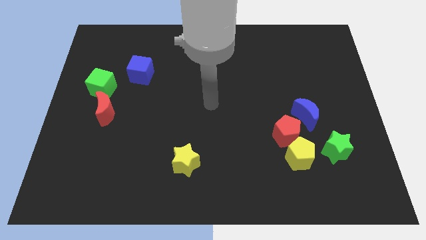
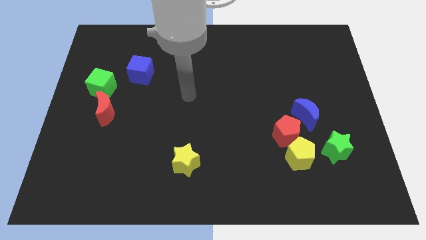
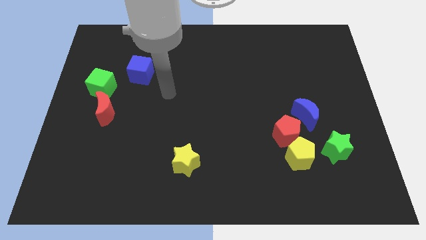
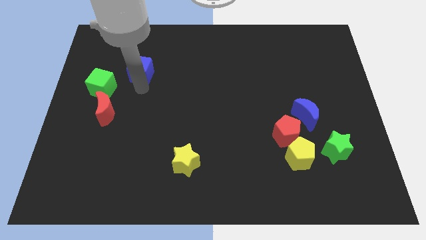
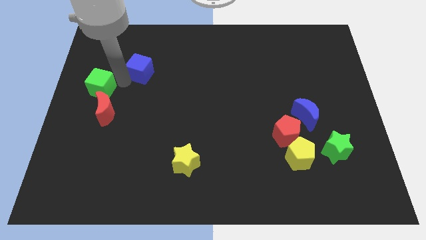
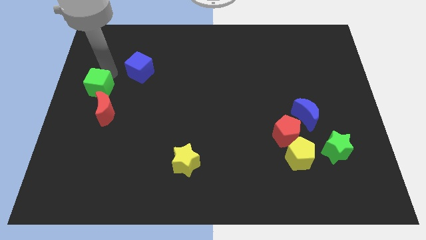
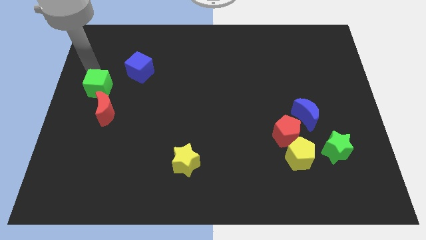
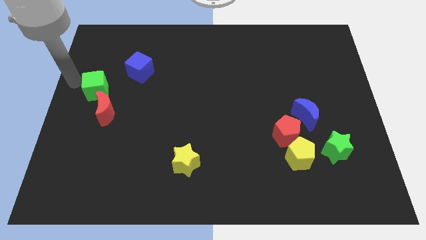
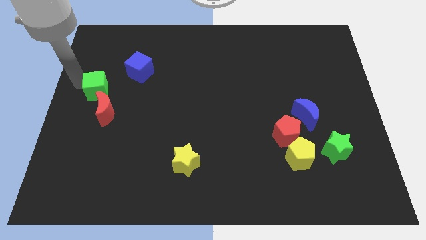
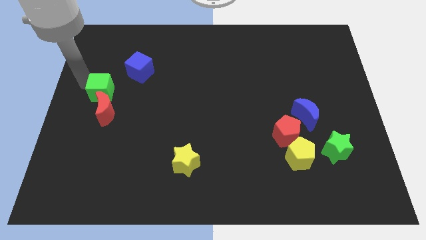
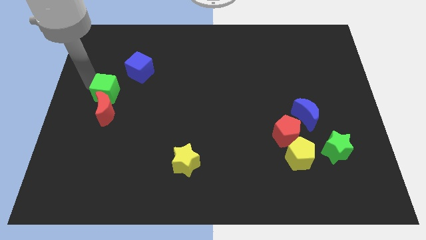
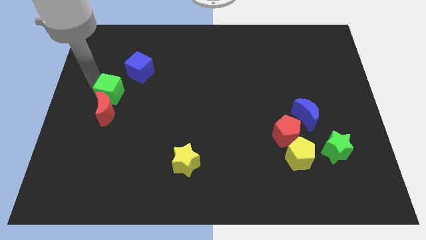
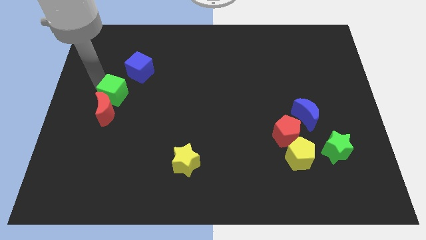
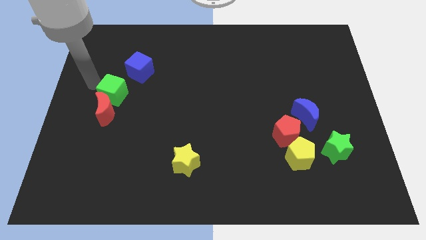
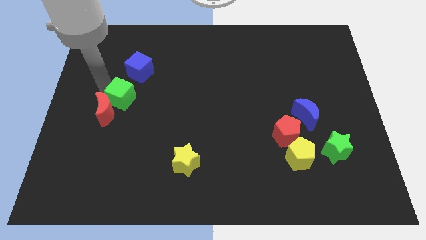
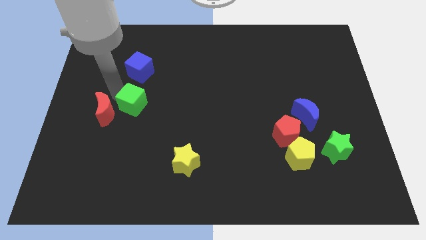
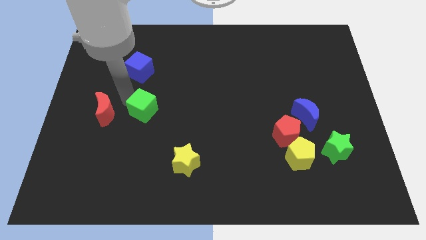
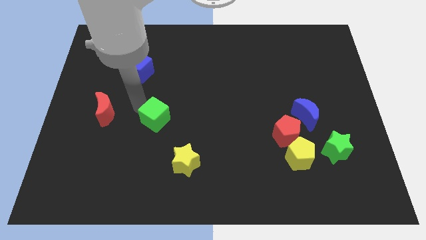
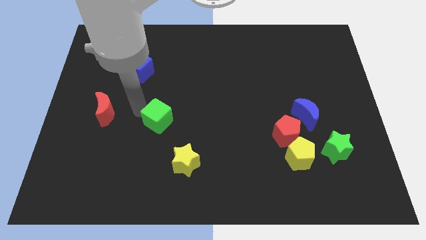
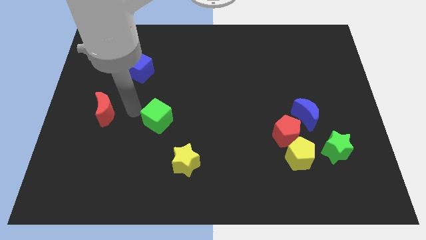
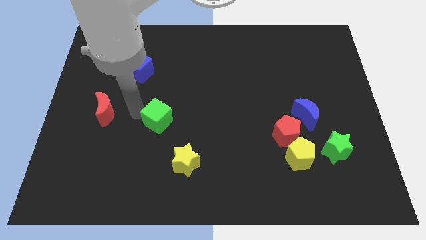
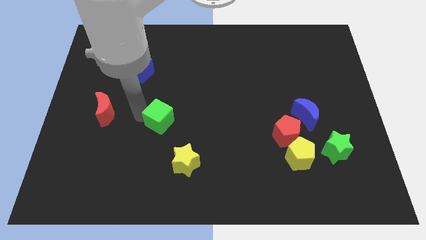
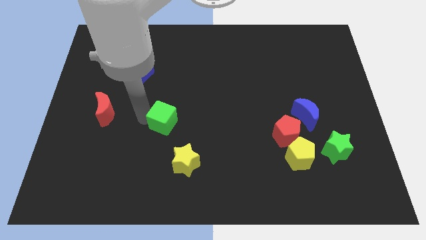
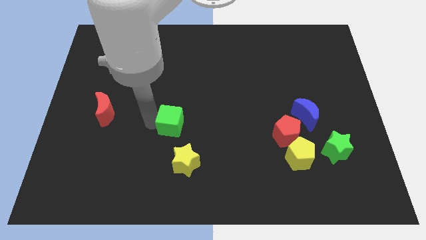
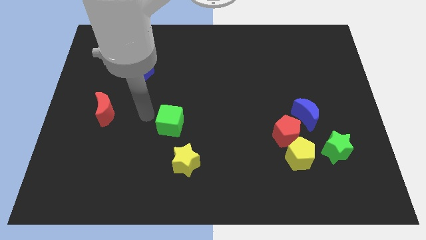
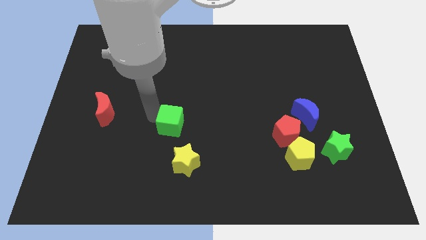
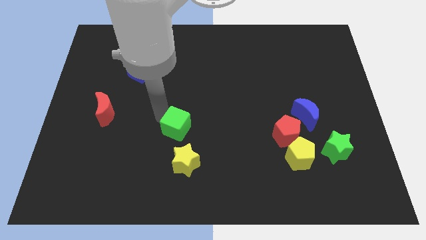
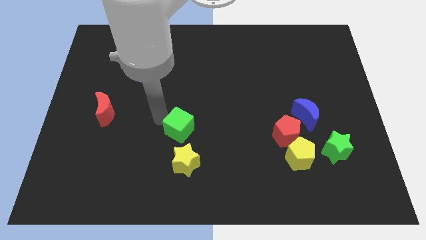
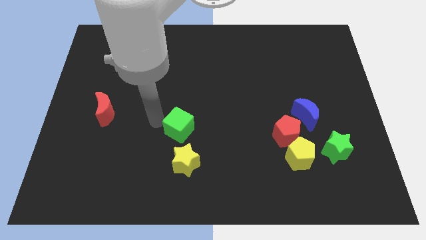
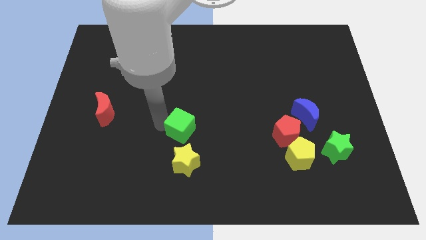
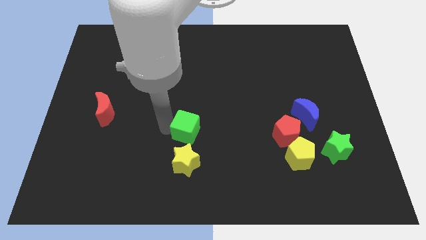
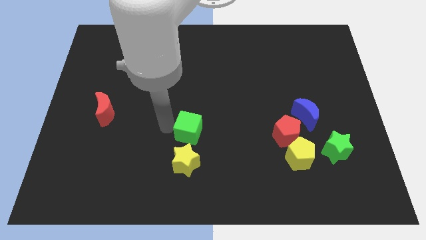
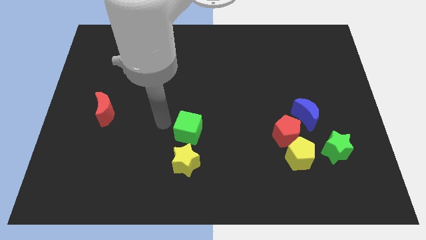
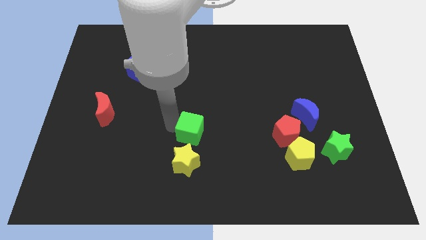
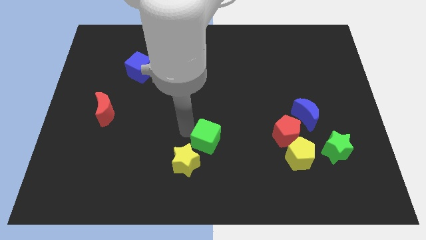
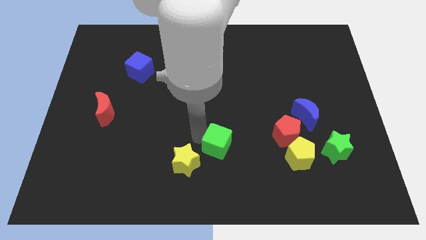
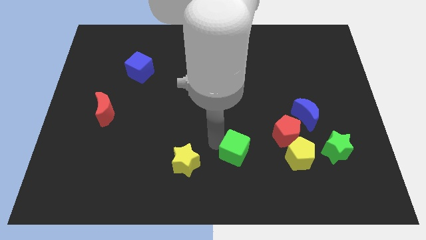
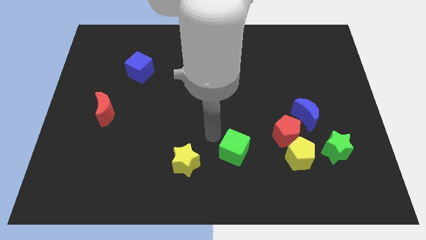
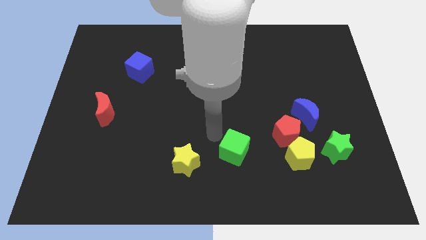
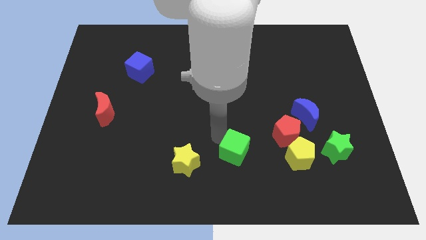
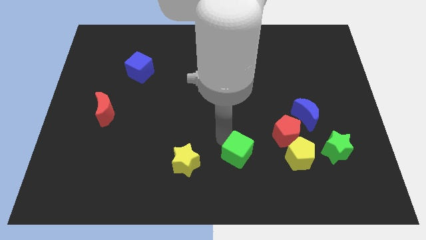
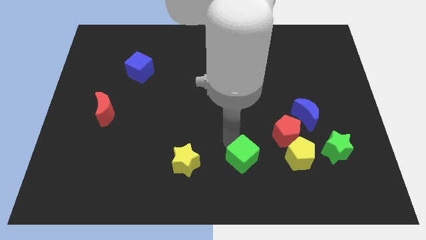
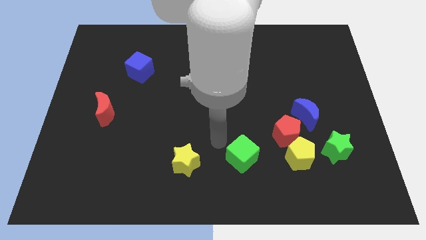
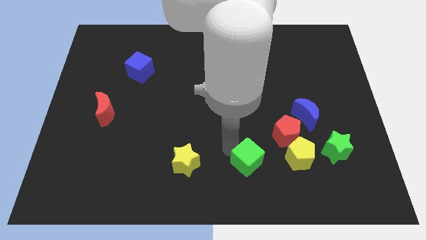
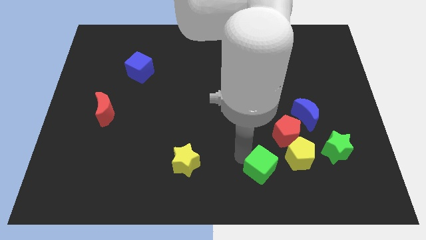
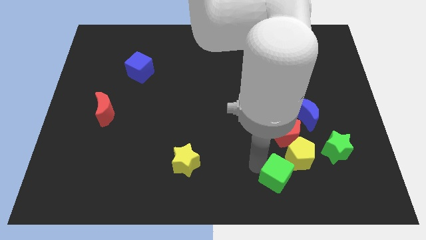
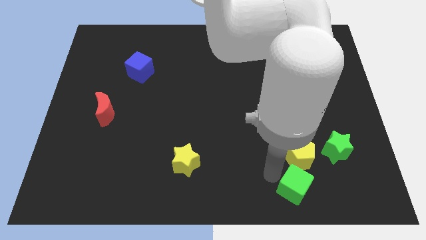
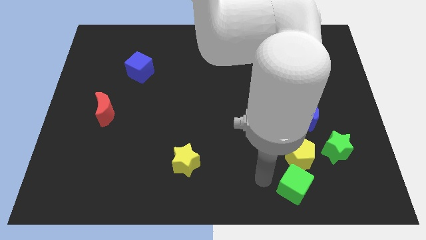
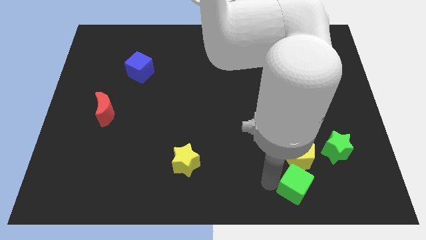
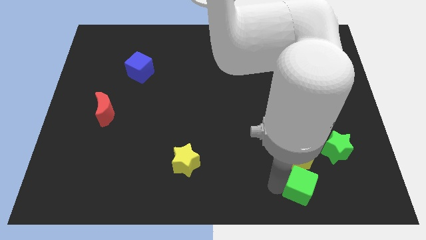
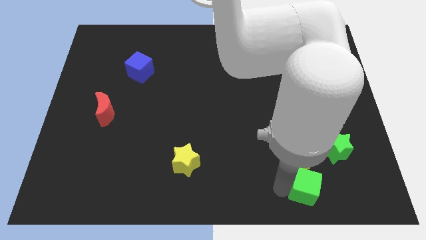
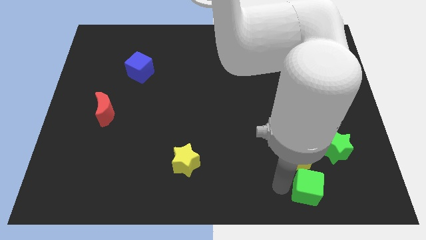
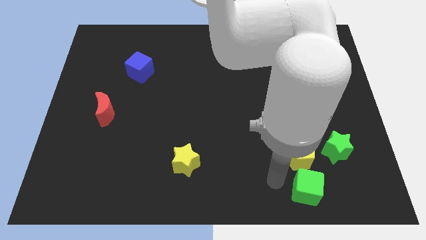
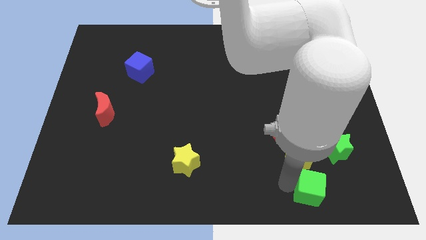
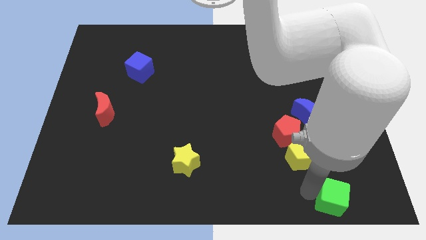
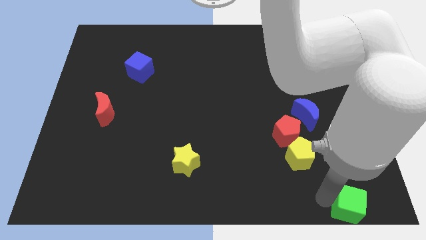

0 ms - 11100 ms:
push the green cube to the lower right corner
